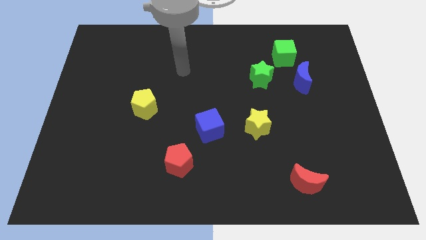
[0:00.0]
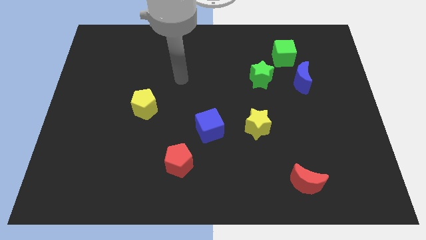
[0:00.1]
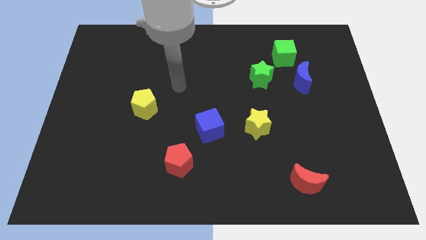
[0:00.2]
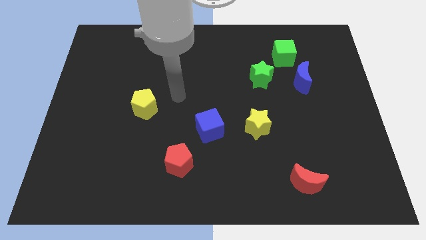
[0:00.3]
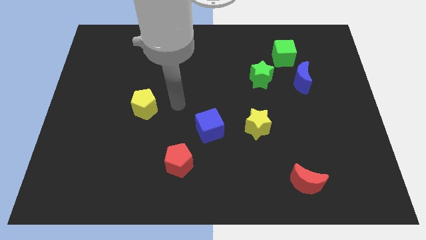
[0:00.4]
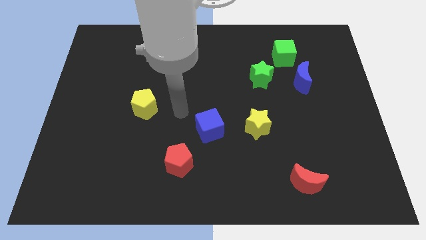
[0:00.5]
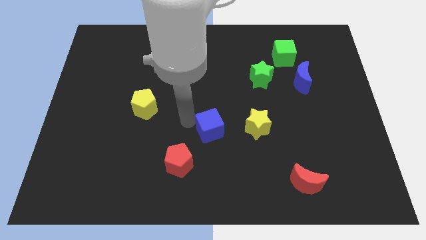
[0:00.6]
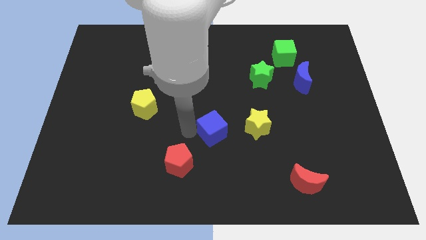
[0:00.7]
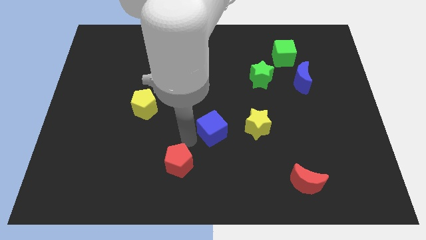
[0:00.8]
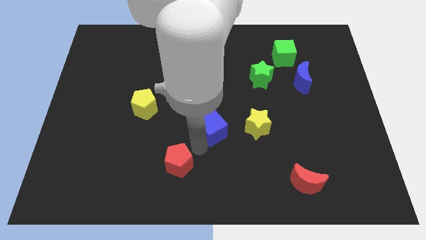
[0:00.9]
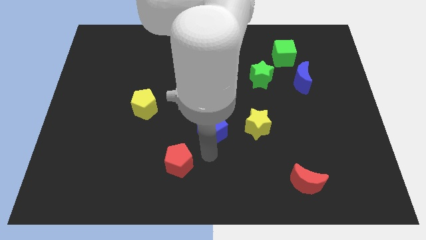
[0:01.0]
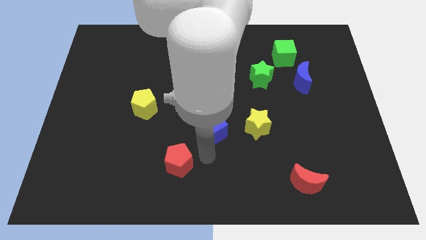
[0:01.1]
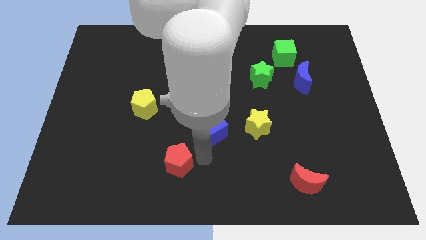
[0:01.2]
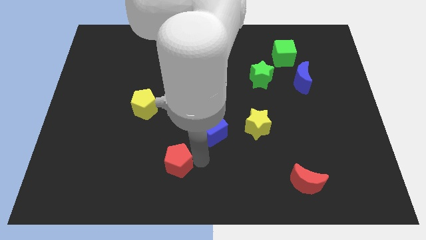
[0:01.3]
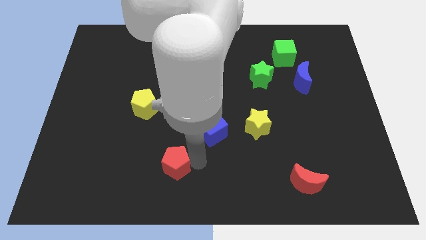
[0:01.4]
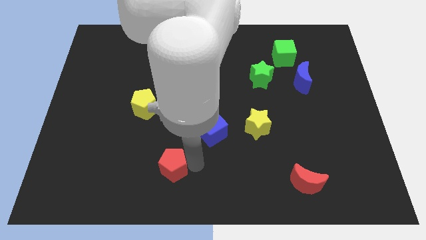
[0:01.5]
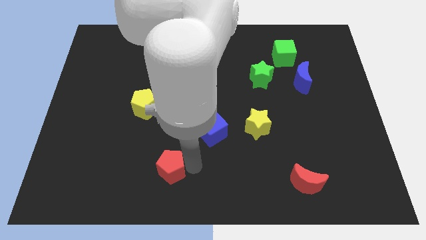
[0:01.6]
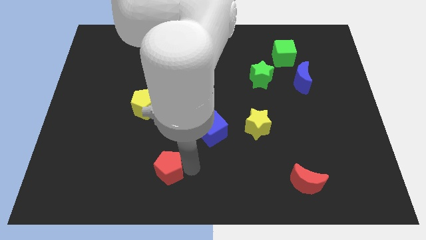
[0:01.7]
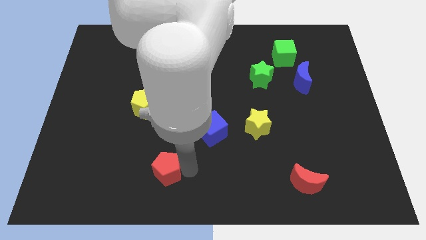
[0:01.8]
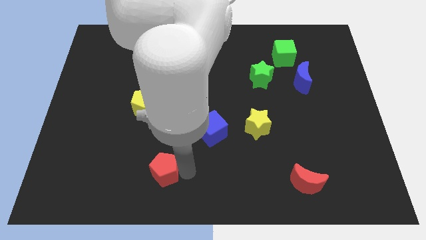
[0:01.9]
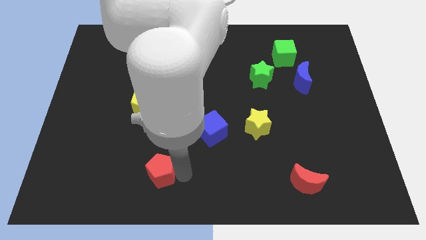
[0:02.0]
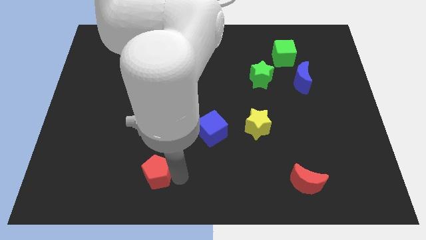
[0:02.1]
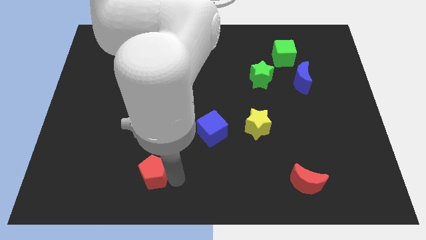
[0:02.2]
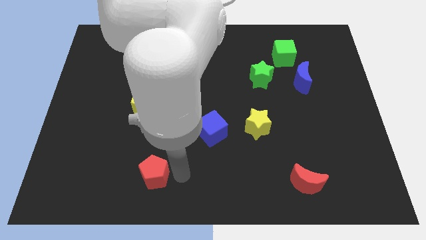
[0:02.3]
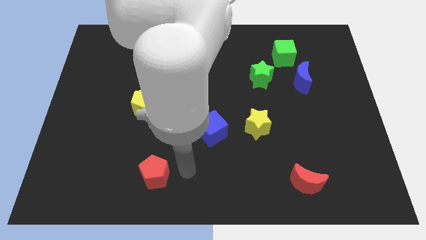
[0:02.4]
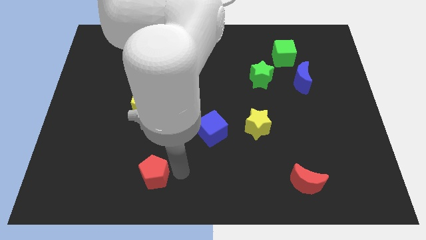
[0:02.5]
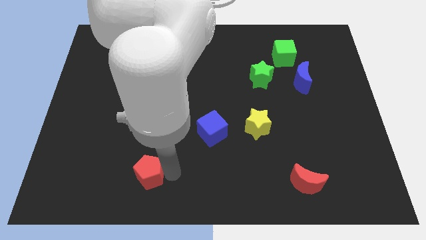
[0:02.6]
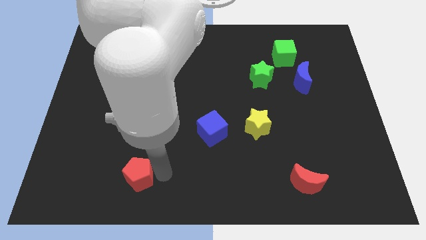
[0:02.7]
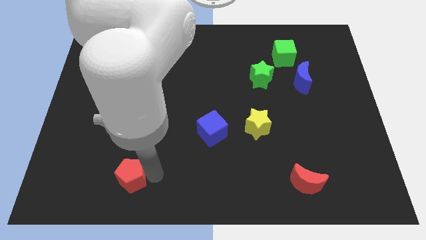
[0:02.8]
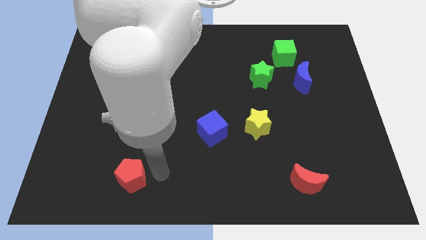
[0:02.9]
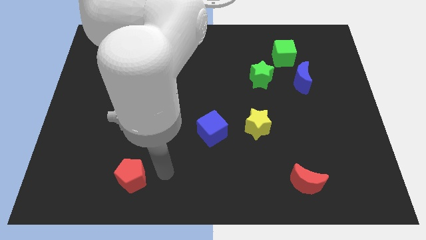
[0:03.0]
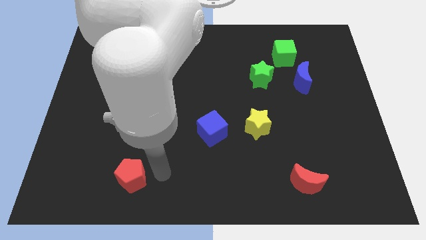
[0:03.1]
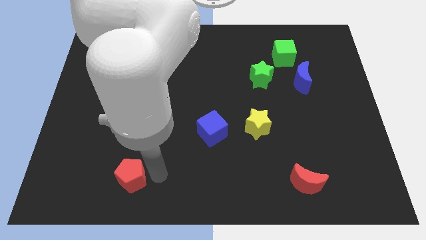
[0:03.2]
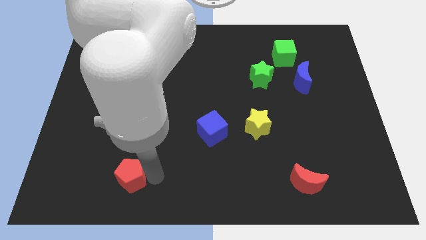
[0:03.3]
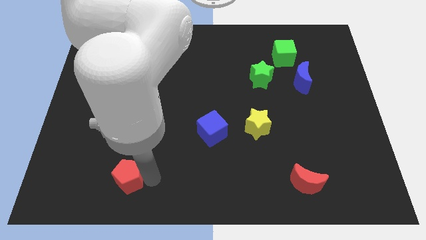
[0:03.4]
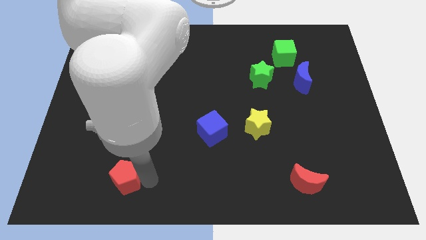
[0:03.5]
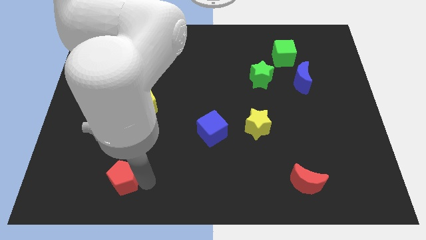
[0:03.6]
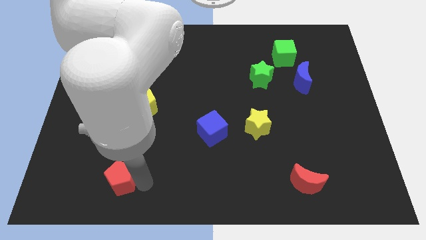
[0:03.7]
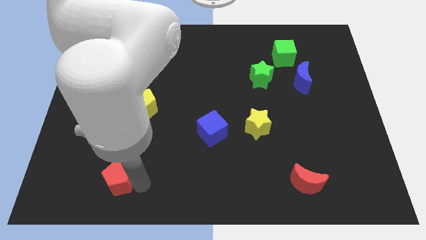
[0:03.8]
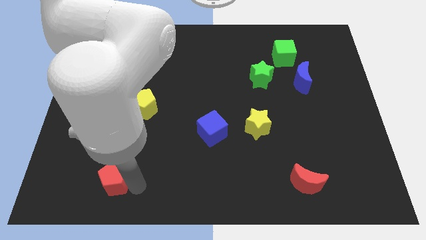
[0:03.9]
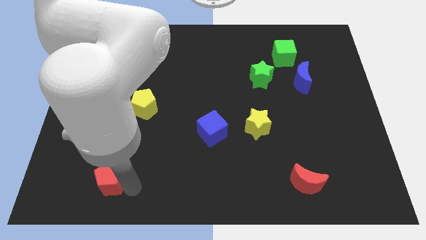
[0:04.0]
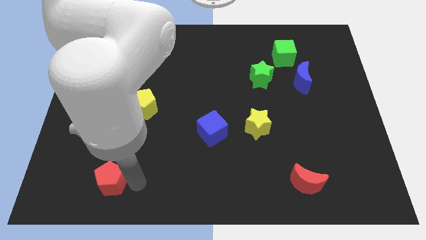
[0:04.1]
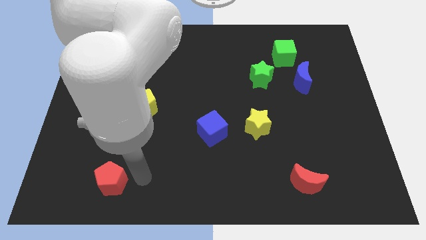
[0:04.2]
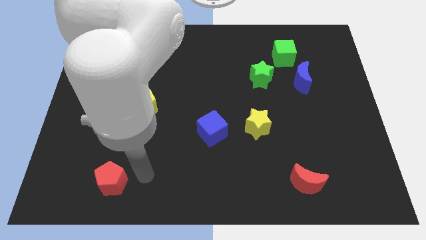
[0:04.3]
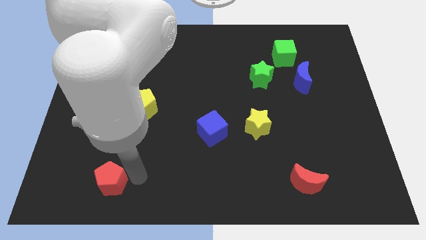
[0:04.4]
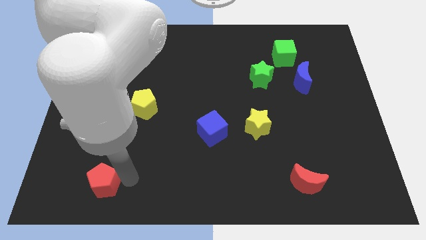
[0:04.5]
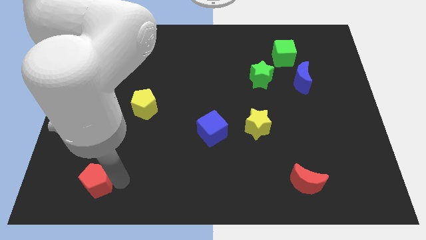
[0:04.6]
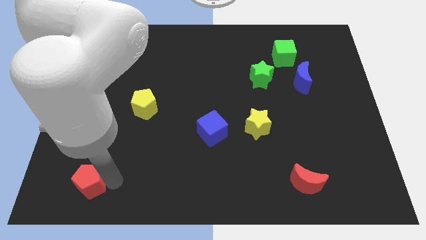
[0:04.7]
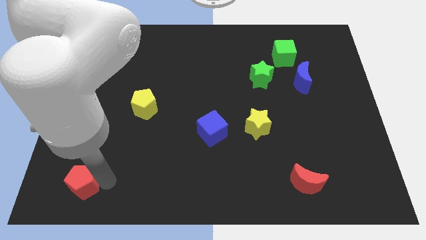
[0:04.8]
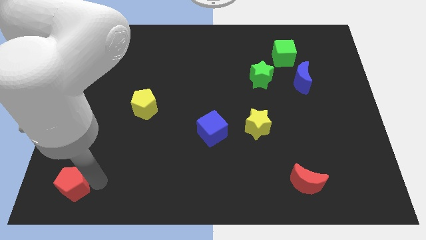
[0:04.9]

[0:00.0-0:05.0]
push the red pentagon to the lower left corner

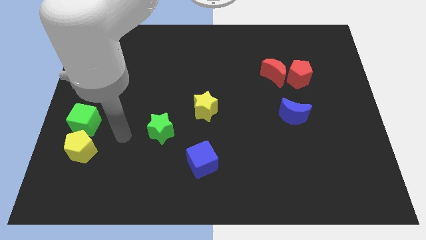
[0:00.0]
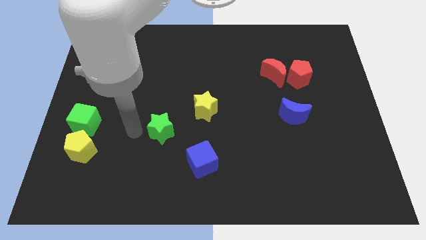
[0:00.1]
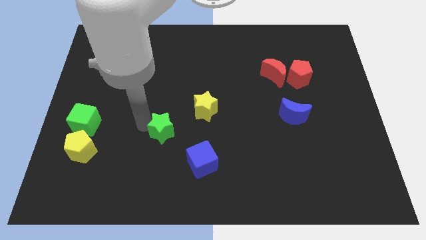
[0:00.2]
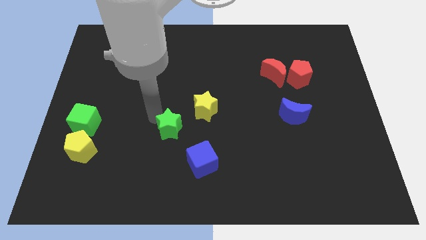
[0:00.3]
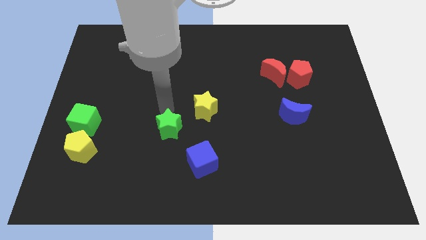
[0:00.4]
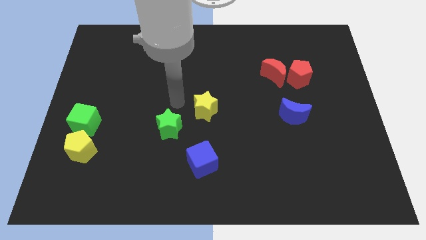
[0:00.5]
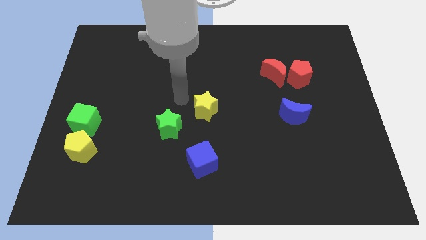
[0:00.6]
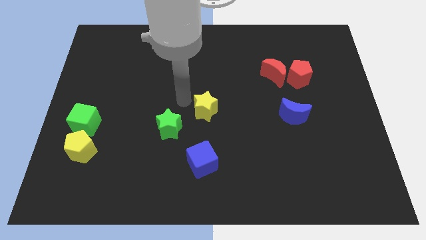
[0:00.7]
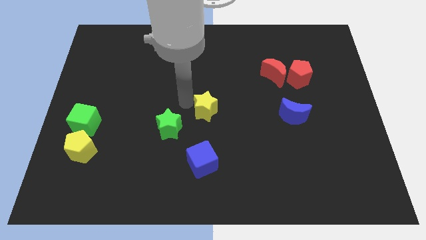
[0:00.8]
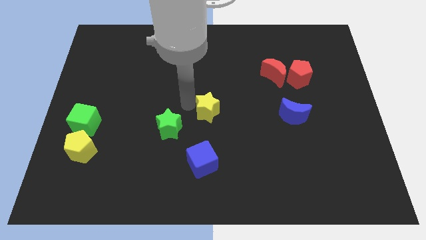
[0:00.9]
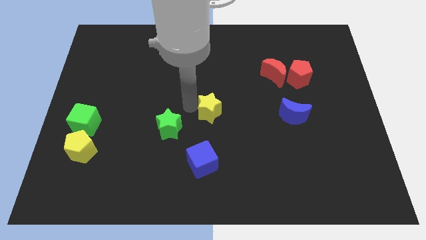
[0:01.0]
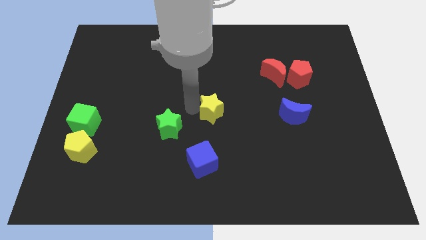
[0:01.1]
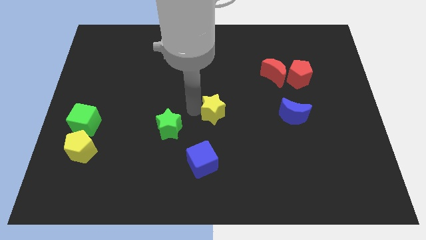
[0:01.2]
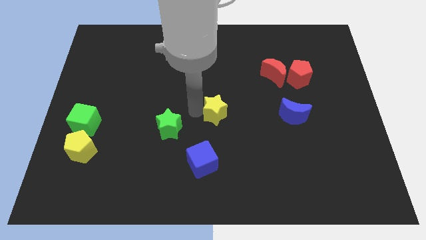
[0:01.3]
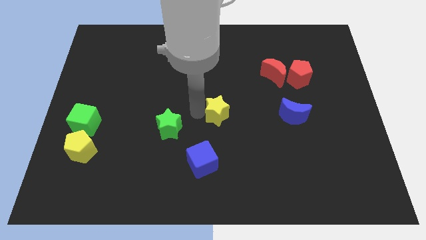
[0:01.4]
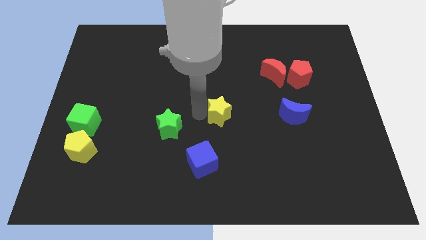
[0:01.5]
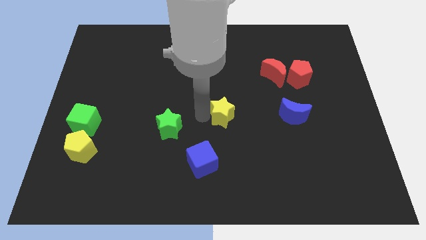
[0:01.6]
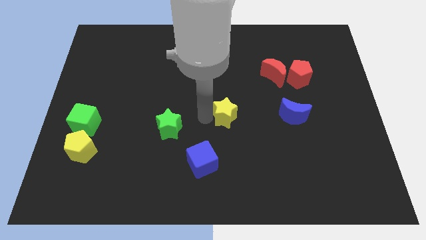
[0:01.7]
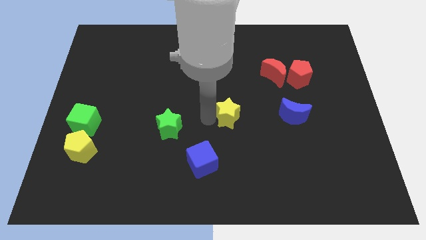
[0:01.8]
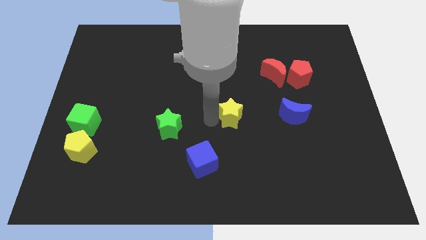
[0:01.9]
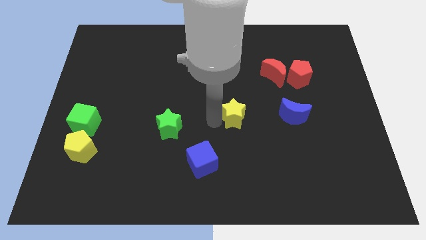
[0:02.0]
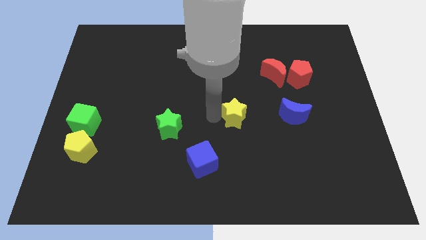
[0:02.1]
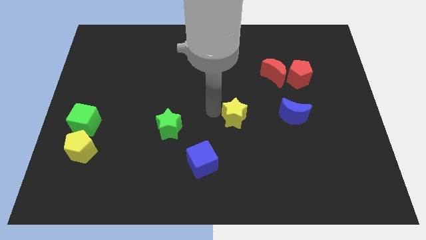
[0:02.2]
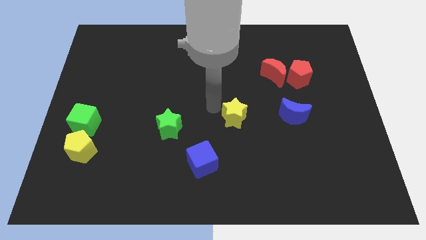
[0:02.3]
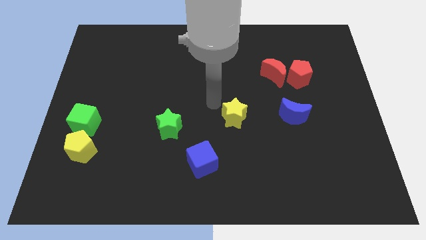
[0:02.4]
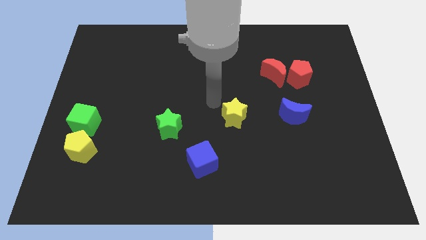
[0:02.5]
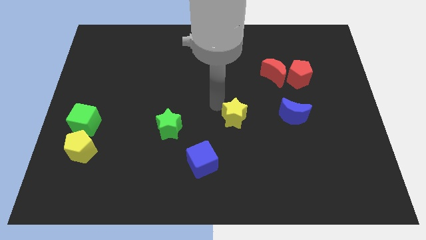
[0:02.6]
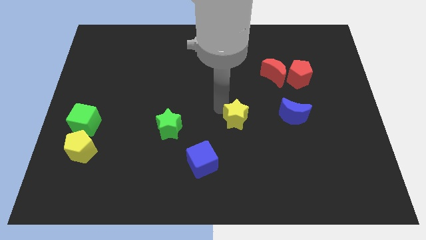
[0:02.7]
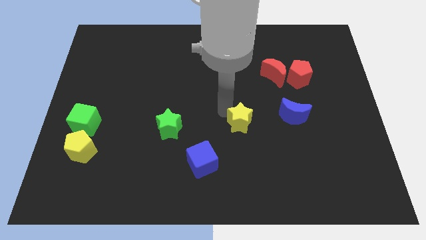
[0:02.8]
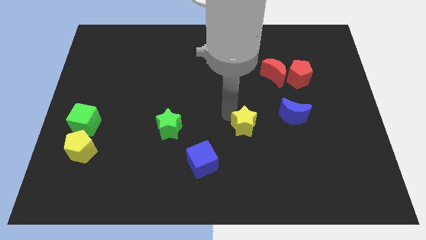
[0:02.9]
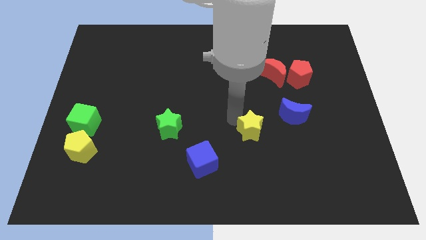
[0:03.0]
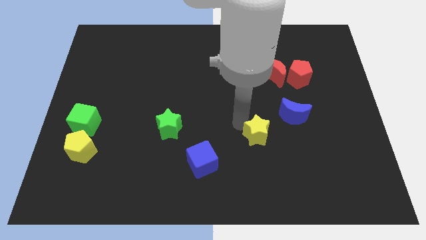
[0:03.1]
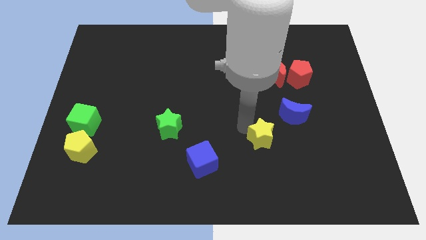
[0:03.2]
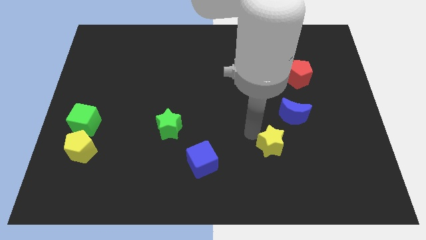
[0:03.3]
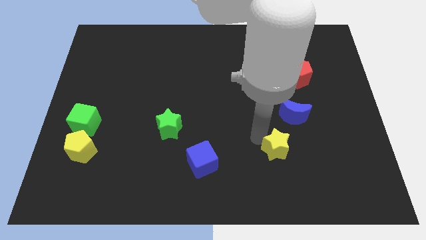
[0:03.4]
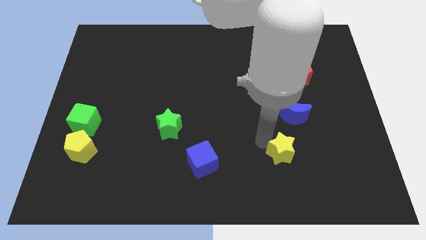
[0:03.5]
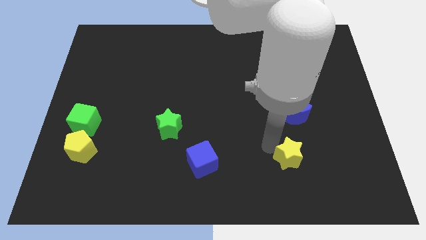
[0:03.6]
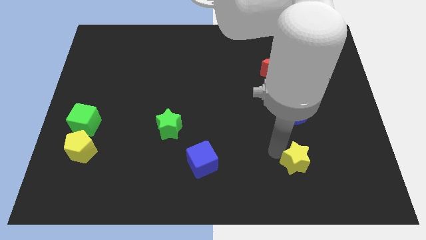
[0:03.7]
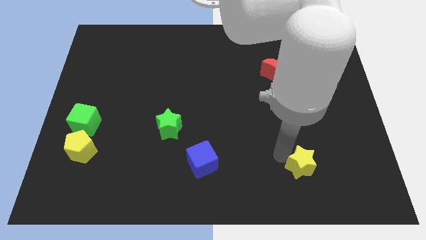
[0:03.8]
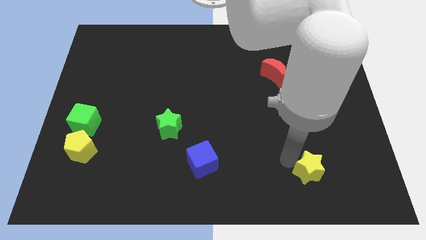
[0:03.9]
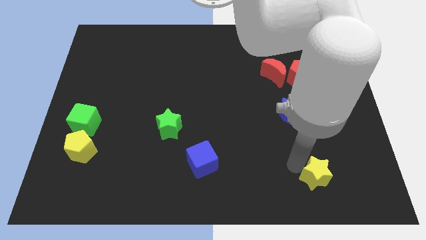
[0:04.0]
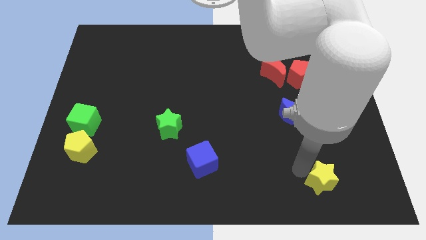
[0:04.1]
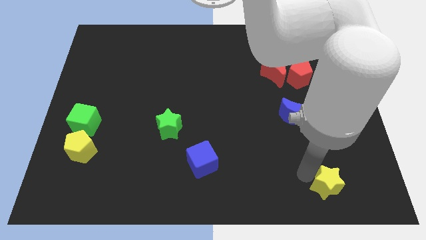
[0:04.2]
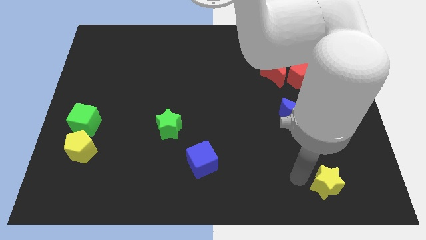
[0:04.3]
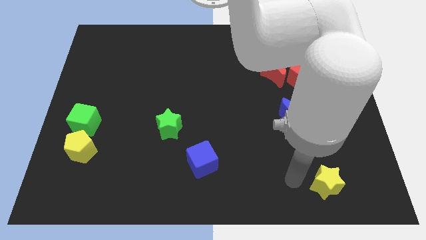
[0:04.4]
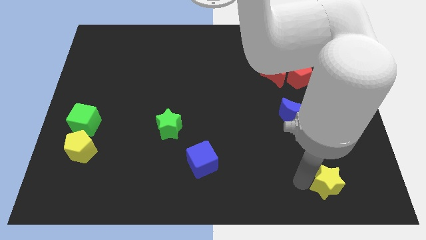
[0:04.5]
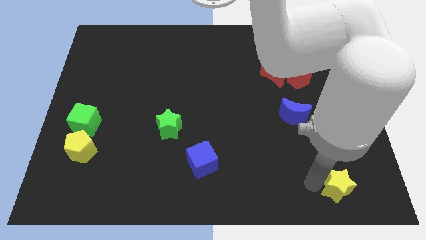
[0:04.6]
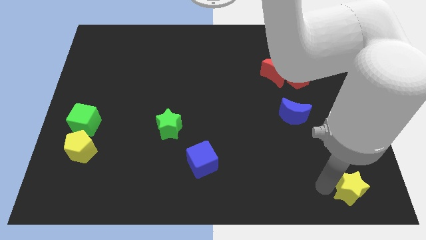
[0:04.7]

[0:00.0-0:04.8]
slide the yellow star to the bottom right
